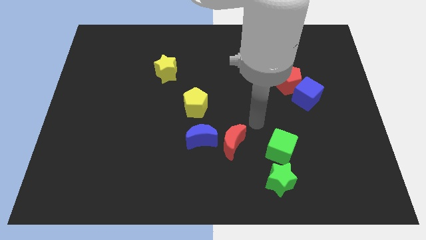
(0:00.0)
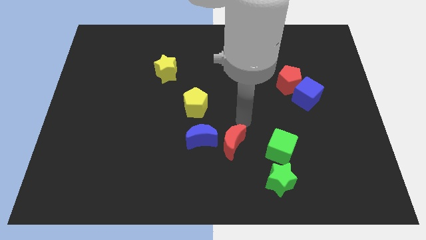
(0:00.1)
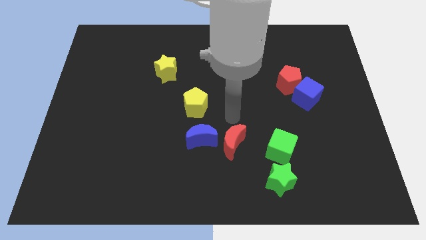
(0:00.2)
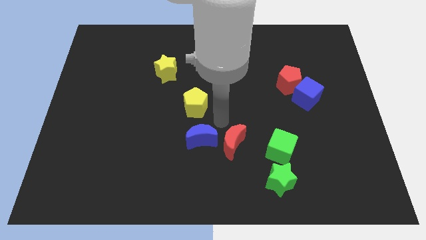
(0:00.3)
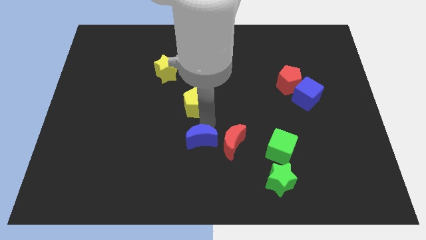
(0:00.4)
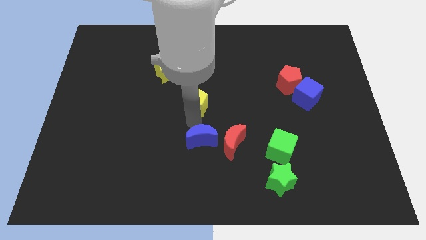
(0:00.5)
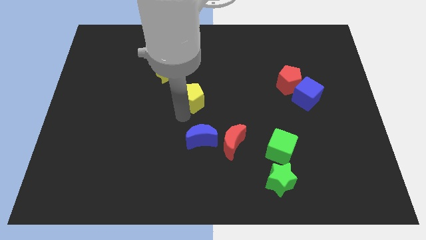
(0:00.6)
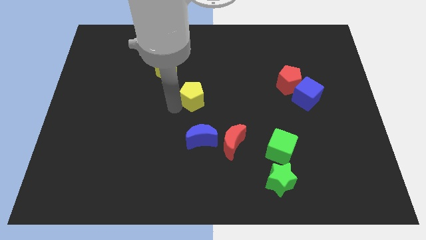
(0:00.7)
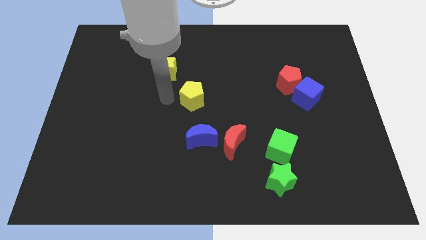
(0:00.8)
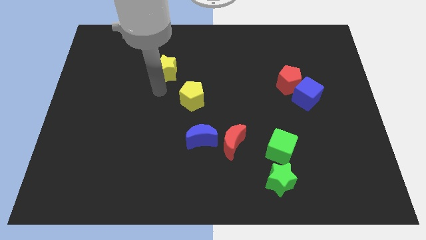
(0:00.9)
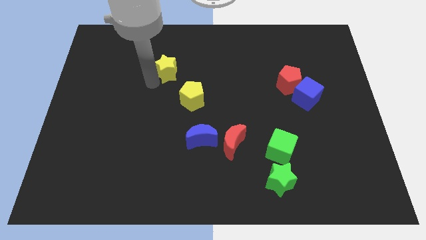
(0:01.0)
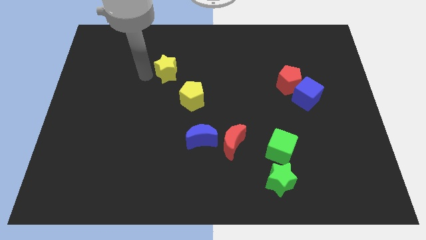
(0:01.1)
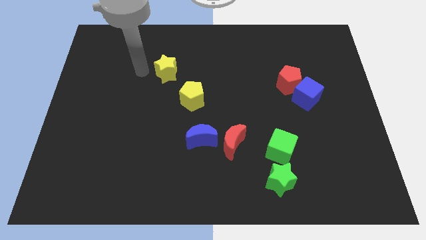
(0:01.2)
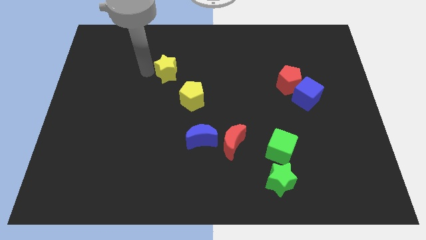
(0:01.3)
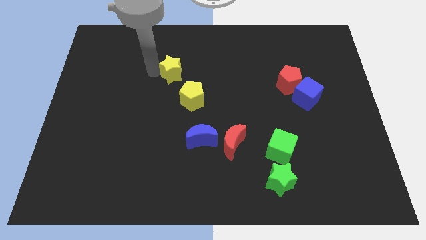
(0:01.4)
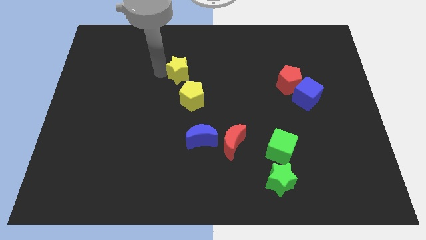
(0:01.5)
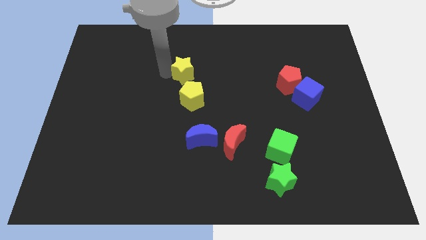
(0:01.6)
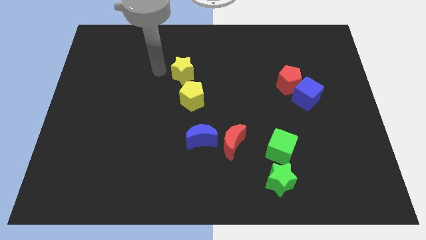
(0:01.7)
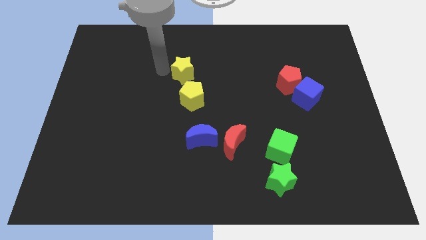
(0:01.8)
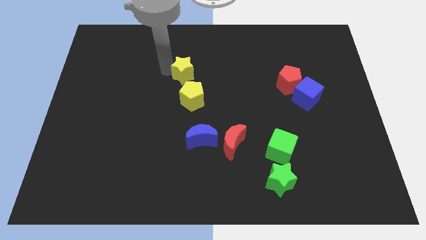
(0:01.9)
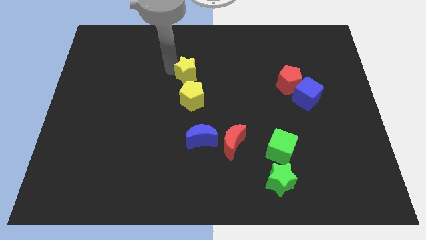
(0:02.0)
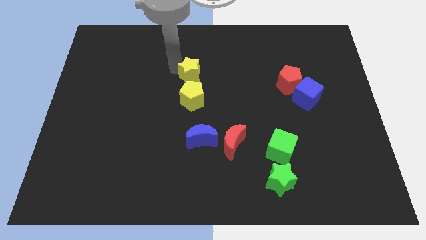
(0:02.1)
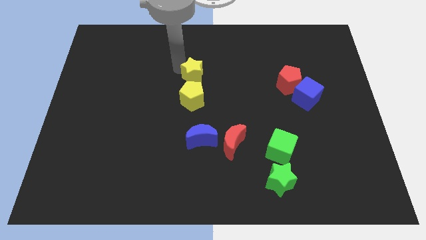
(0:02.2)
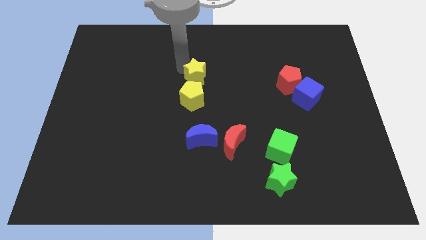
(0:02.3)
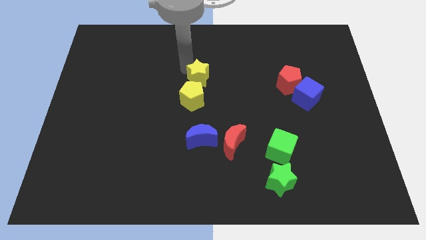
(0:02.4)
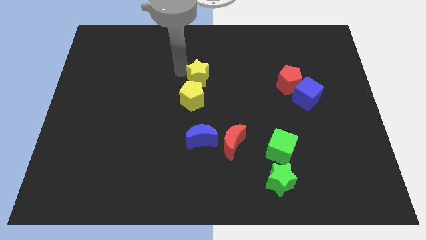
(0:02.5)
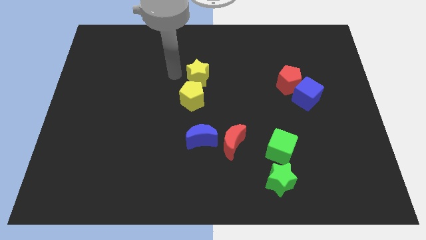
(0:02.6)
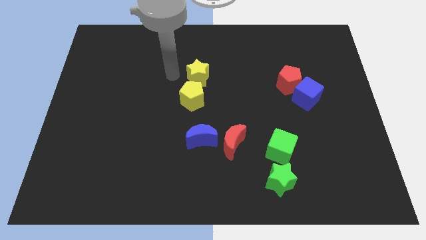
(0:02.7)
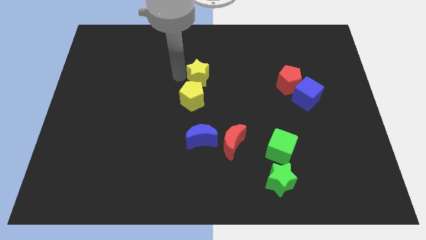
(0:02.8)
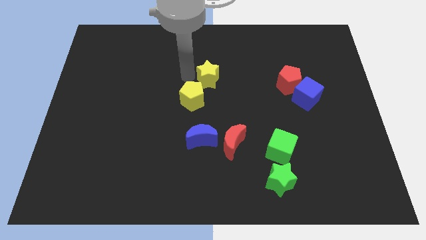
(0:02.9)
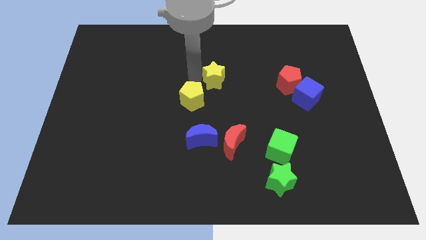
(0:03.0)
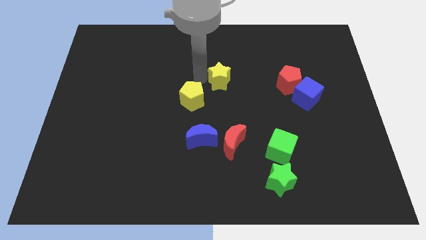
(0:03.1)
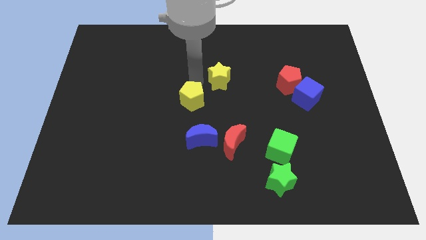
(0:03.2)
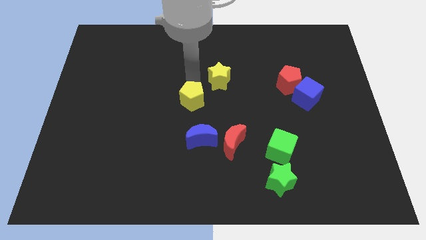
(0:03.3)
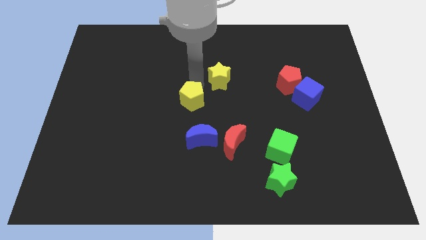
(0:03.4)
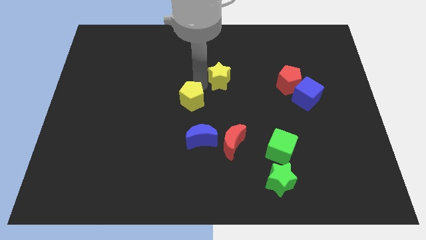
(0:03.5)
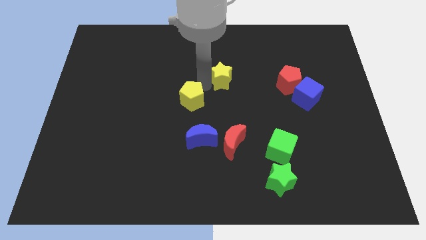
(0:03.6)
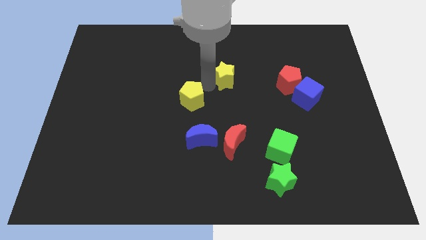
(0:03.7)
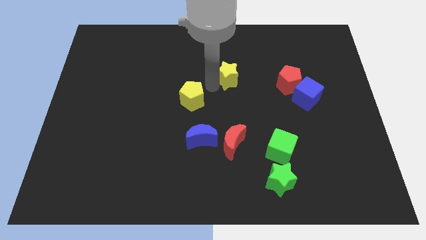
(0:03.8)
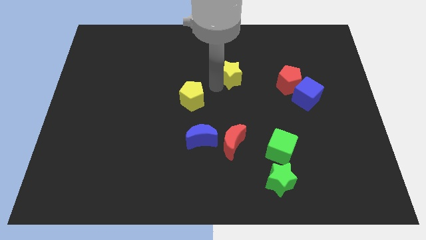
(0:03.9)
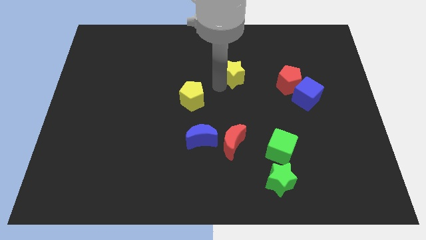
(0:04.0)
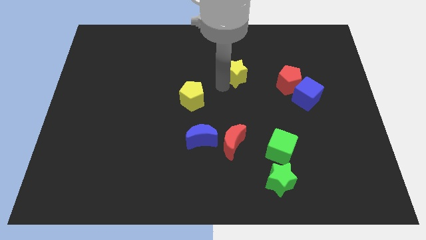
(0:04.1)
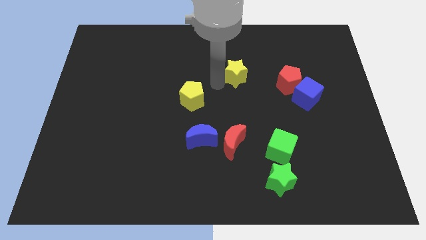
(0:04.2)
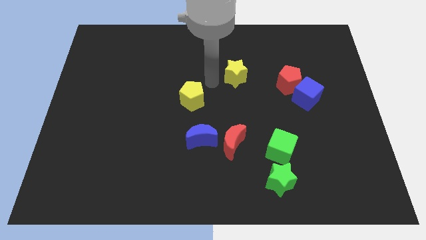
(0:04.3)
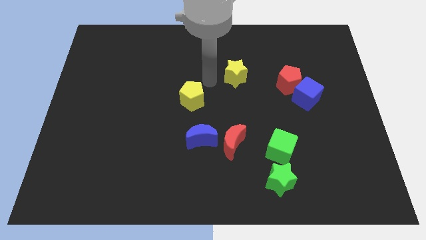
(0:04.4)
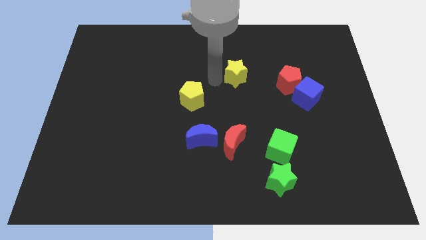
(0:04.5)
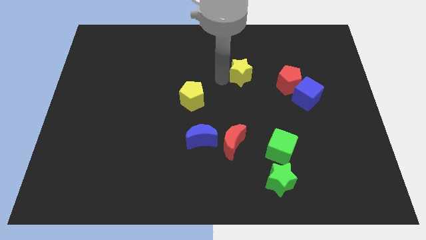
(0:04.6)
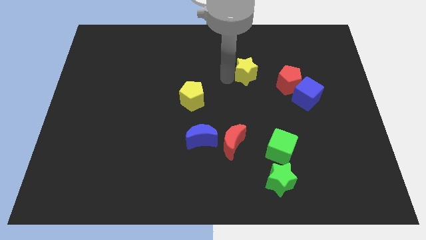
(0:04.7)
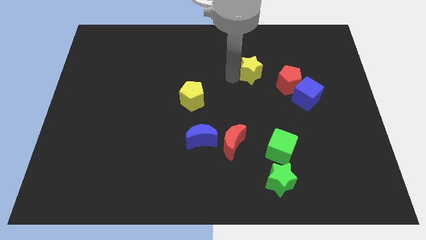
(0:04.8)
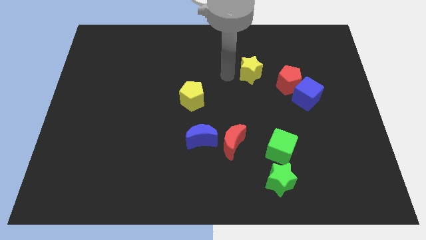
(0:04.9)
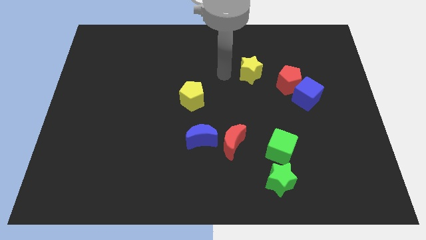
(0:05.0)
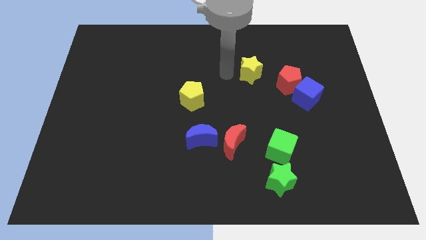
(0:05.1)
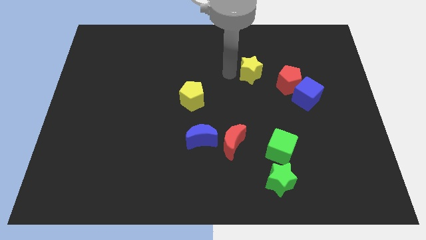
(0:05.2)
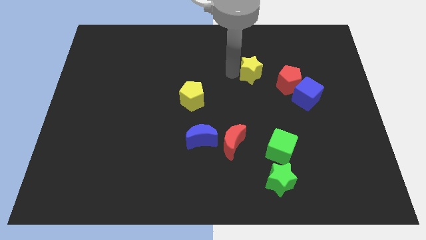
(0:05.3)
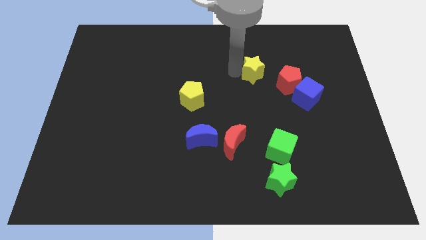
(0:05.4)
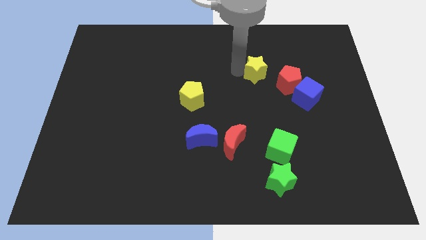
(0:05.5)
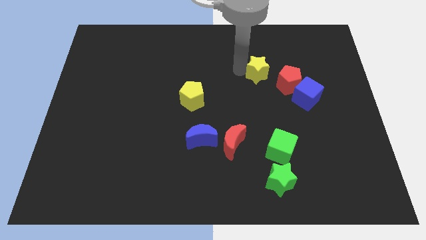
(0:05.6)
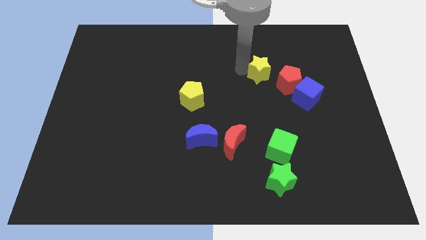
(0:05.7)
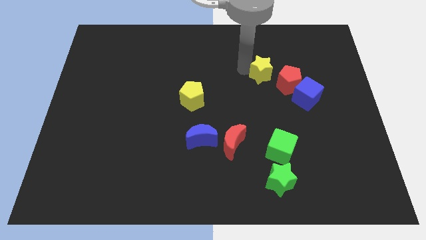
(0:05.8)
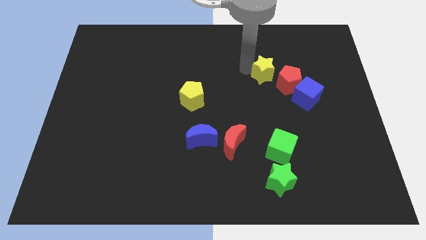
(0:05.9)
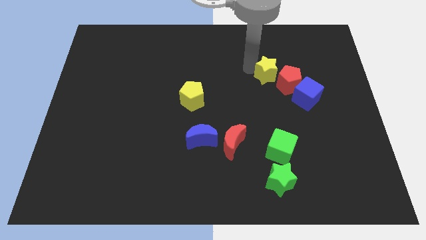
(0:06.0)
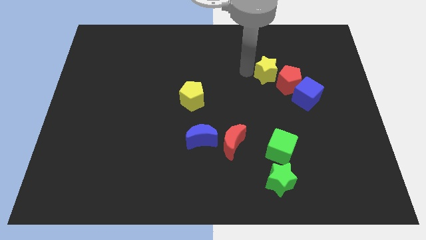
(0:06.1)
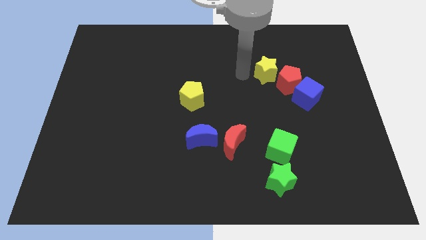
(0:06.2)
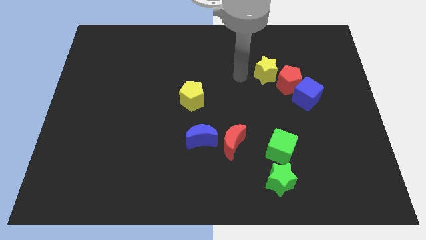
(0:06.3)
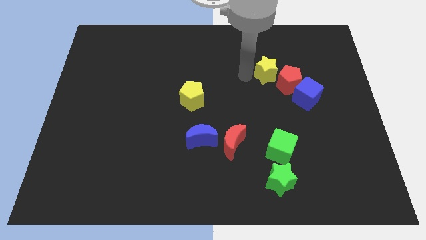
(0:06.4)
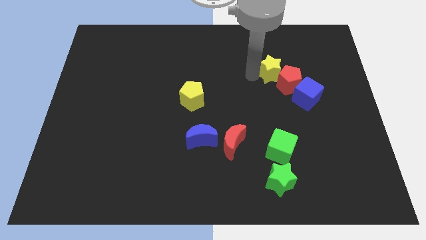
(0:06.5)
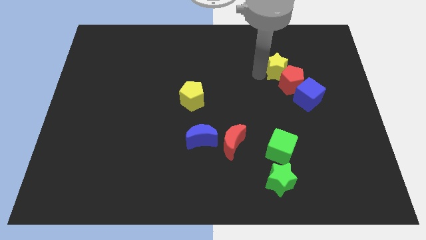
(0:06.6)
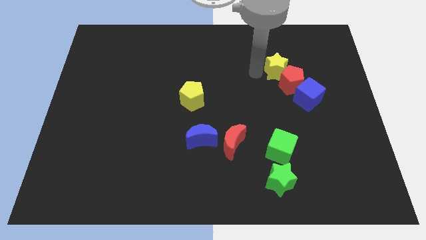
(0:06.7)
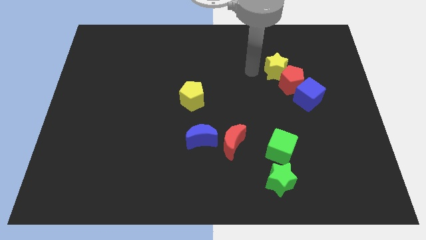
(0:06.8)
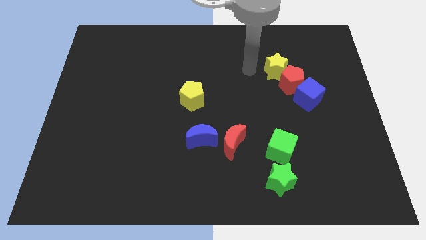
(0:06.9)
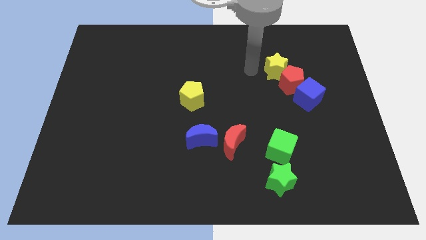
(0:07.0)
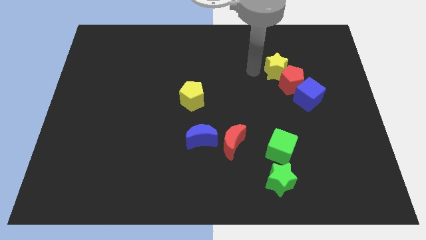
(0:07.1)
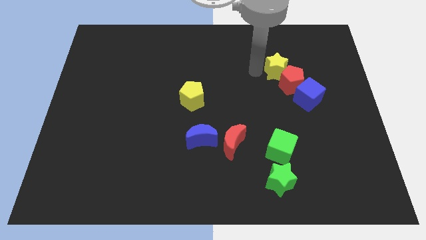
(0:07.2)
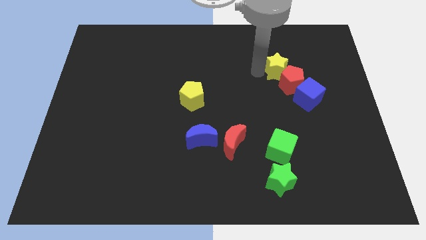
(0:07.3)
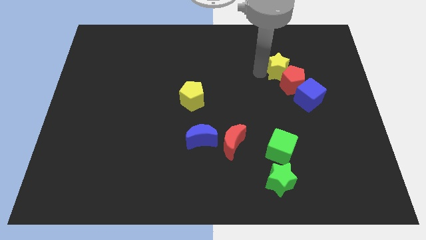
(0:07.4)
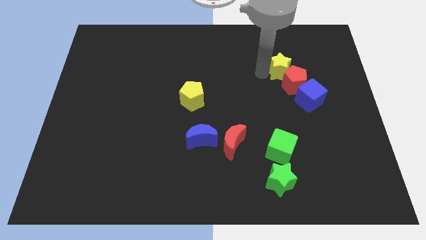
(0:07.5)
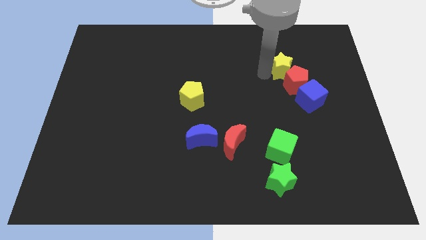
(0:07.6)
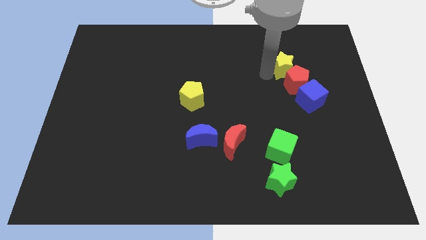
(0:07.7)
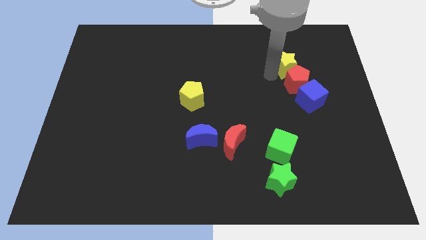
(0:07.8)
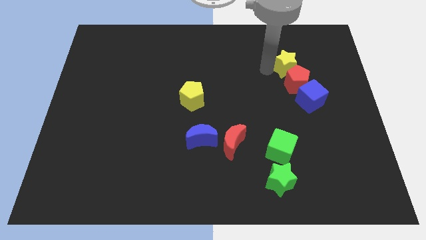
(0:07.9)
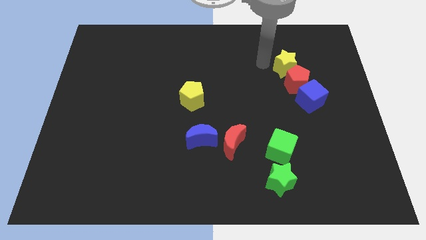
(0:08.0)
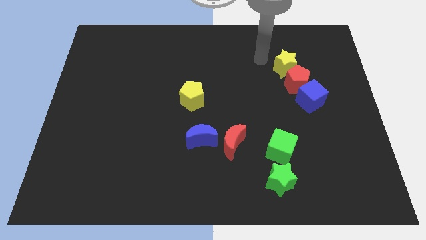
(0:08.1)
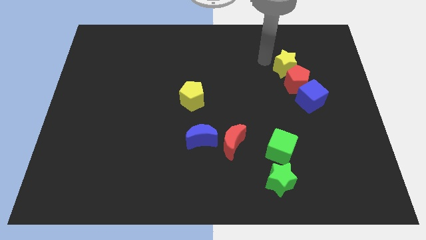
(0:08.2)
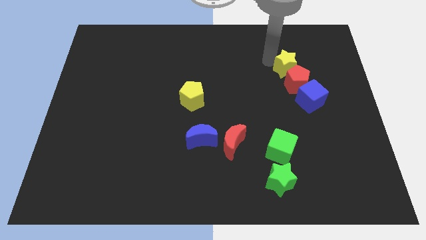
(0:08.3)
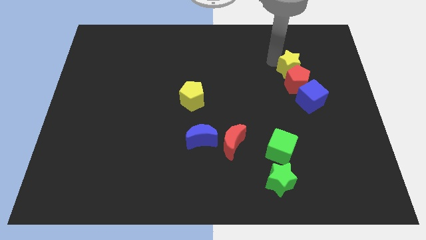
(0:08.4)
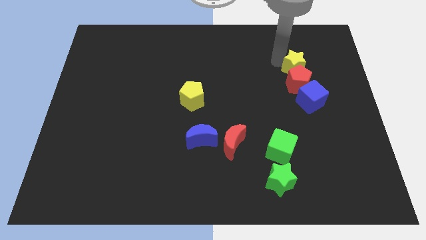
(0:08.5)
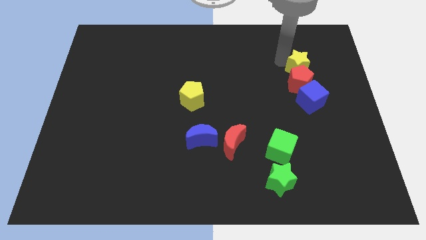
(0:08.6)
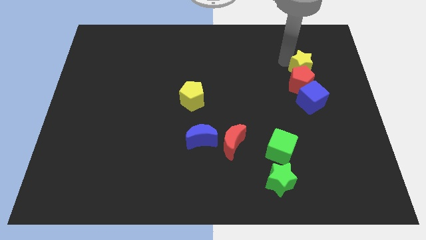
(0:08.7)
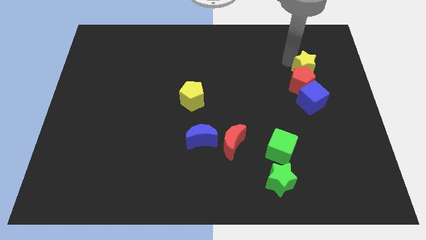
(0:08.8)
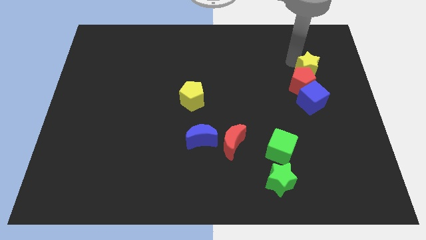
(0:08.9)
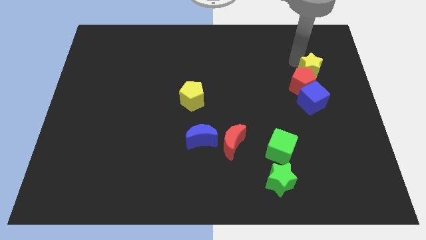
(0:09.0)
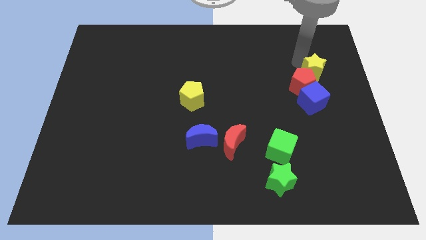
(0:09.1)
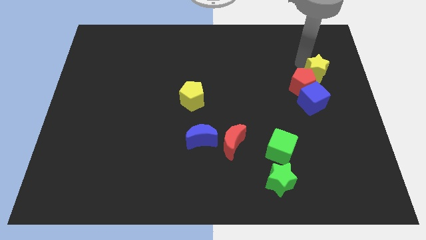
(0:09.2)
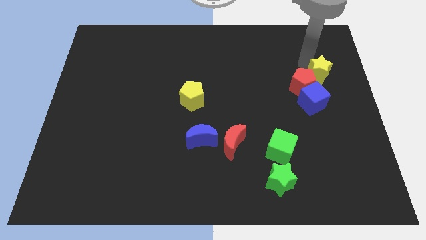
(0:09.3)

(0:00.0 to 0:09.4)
put the yellow star to the top right of the blue cube
